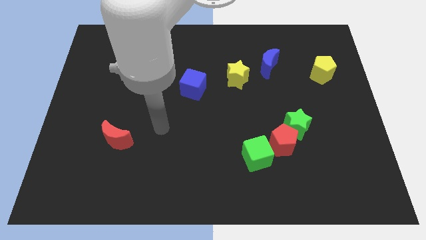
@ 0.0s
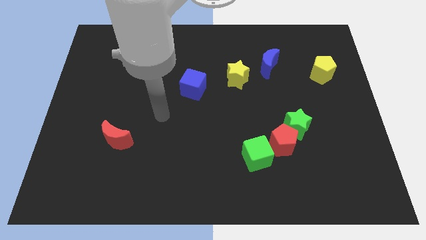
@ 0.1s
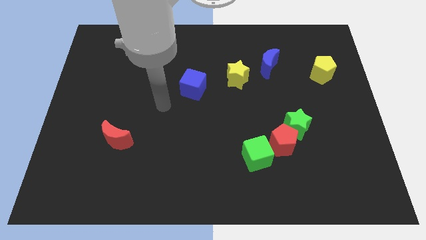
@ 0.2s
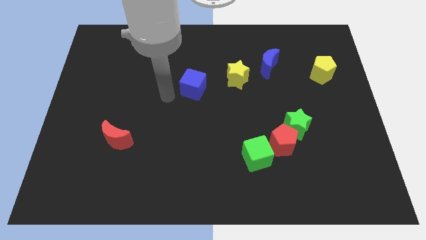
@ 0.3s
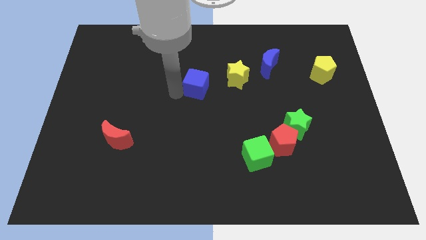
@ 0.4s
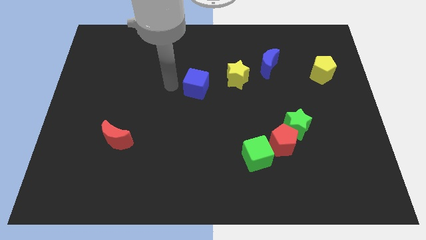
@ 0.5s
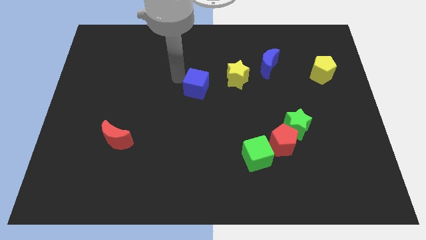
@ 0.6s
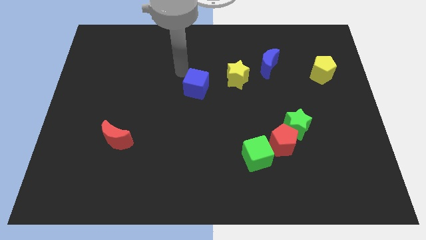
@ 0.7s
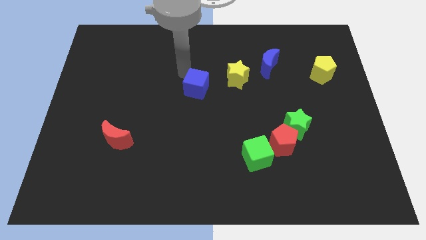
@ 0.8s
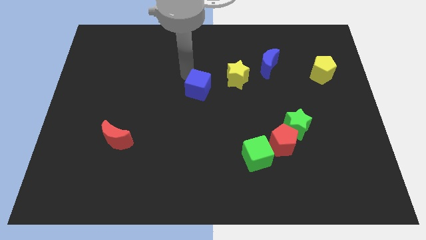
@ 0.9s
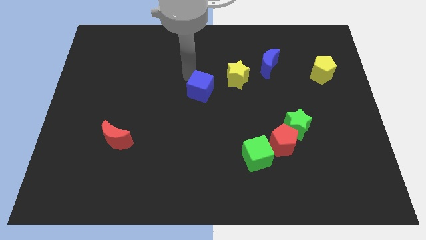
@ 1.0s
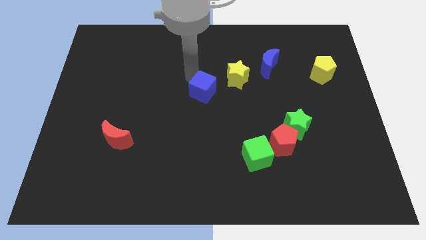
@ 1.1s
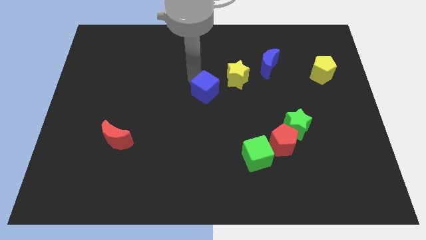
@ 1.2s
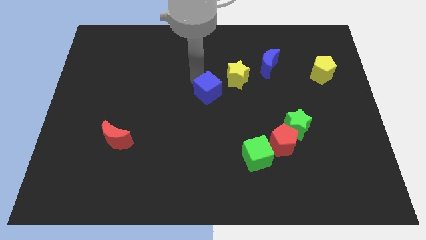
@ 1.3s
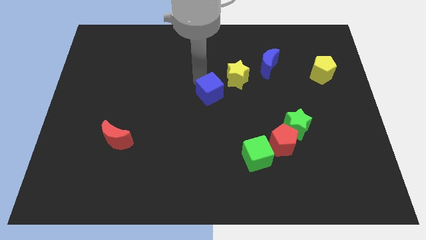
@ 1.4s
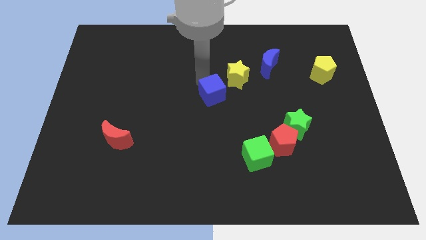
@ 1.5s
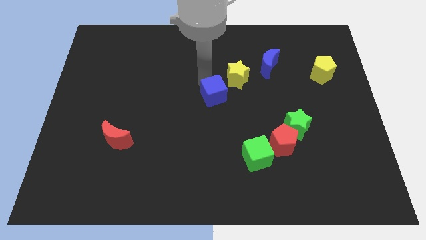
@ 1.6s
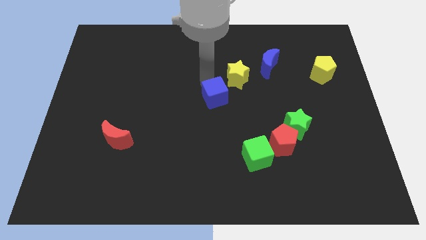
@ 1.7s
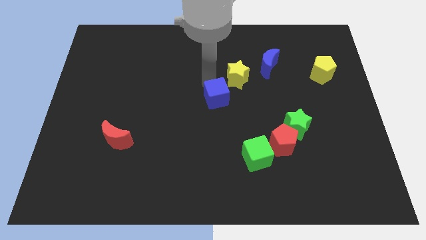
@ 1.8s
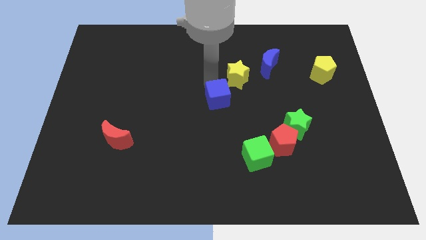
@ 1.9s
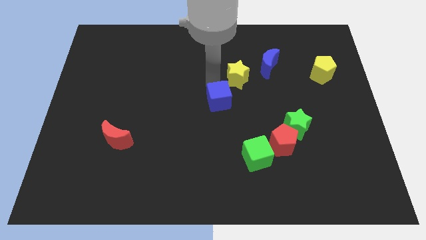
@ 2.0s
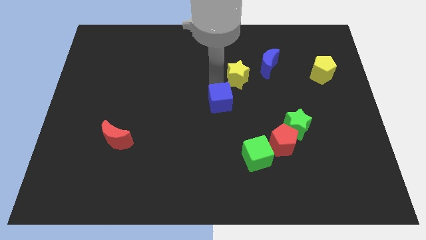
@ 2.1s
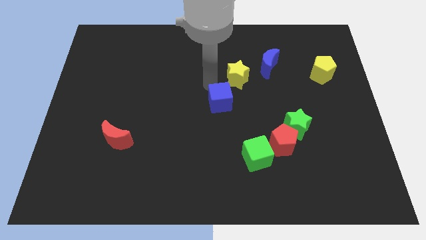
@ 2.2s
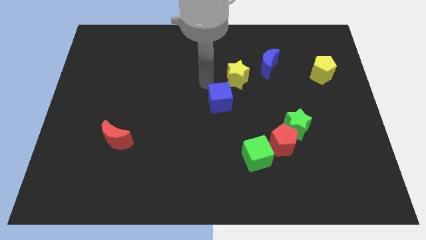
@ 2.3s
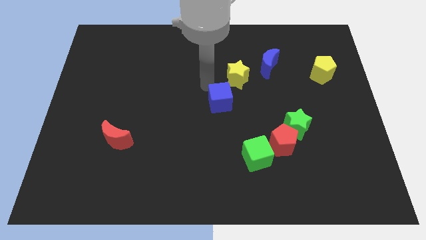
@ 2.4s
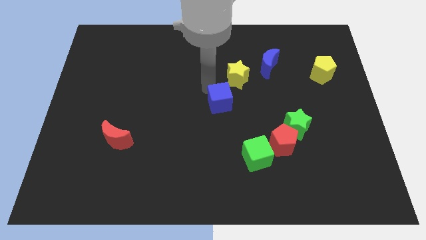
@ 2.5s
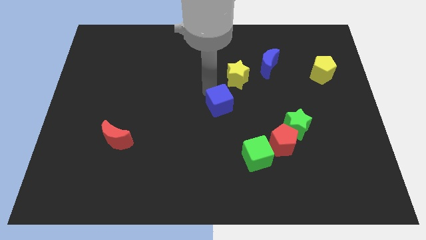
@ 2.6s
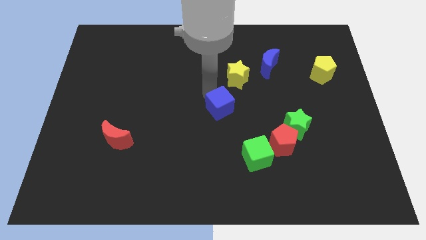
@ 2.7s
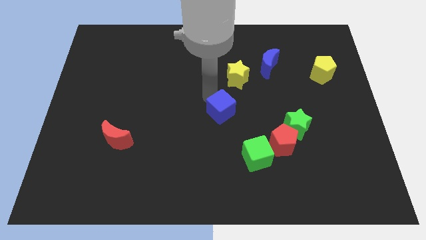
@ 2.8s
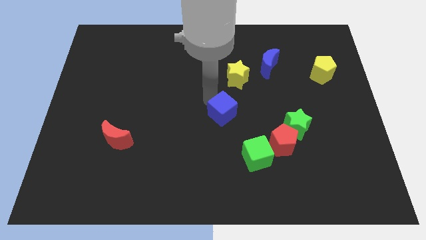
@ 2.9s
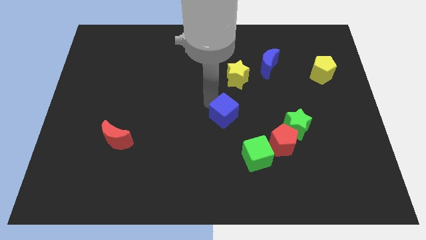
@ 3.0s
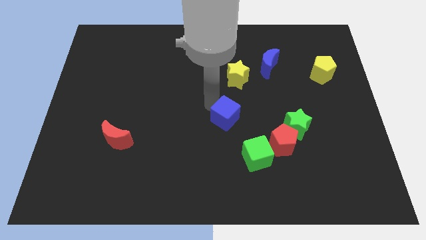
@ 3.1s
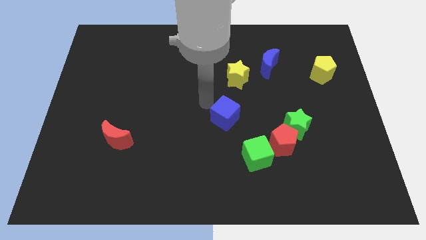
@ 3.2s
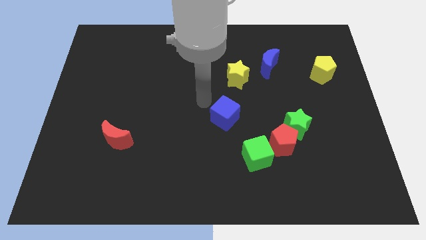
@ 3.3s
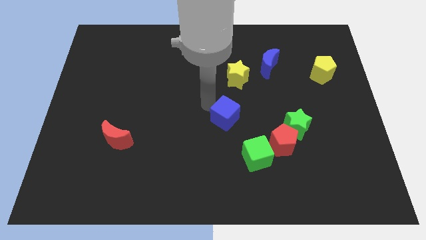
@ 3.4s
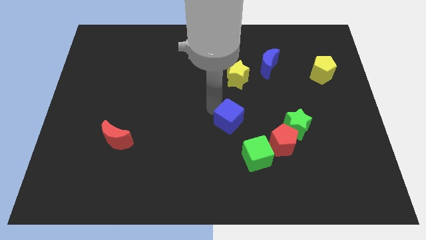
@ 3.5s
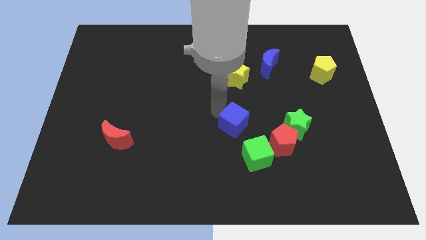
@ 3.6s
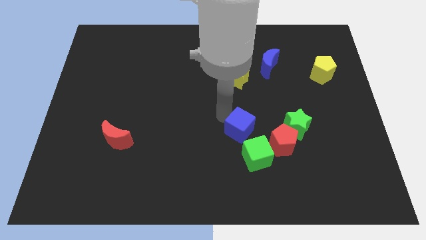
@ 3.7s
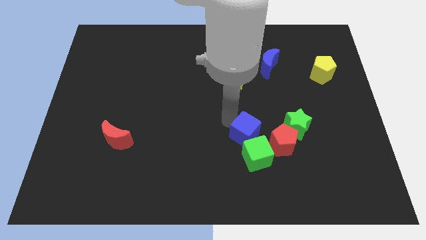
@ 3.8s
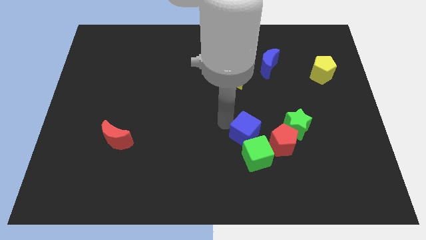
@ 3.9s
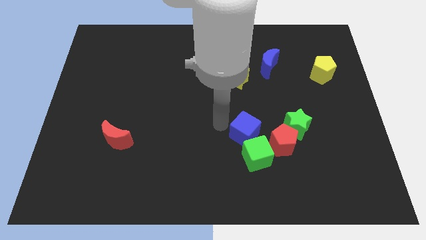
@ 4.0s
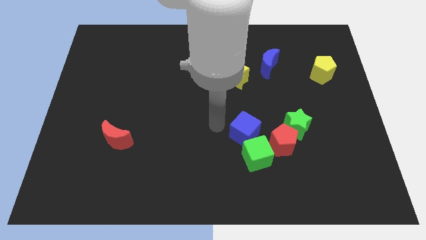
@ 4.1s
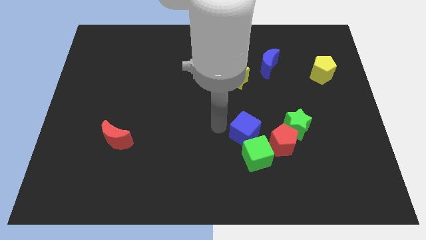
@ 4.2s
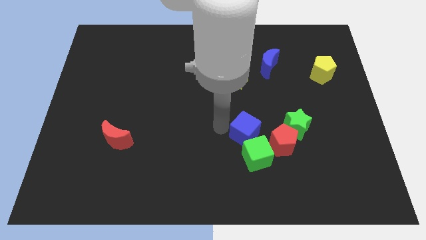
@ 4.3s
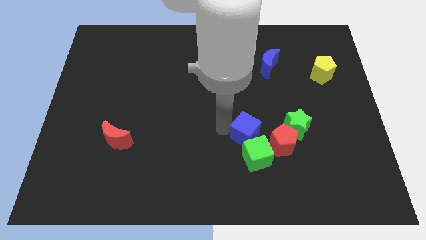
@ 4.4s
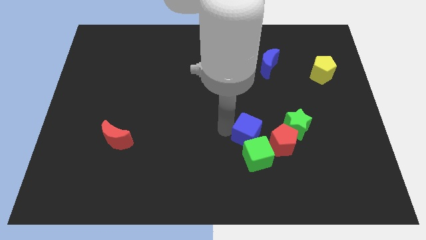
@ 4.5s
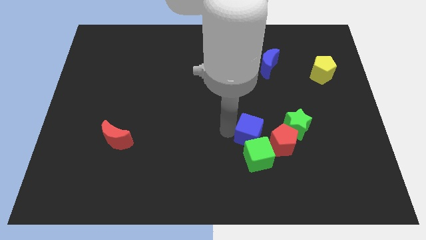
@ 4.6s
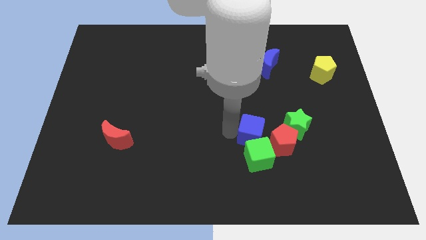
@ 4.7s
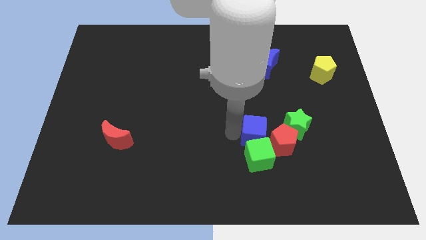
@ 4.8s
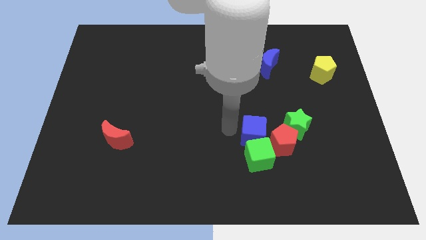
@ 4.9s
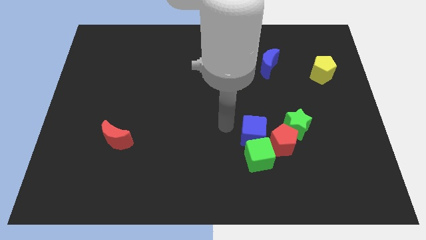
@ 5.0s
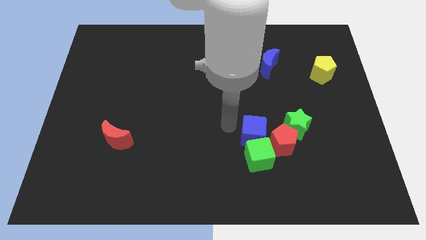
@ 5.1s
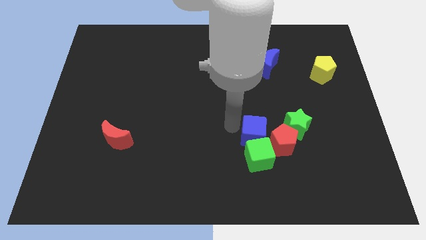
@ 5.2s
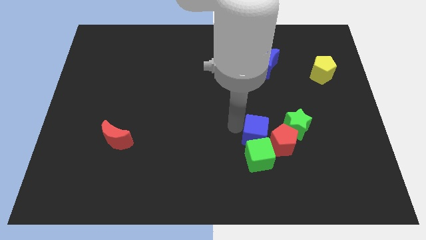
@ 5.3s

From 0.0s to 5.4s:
move the blue cube close to the red pentagon

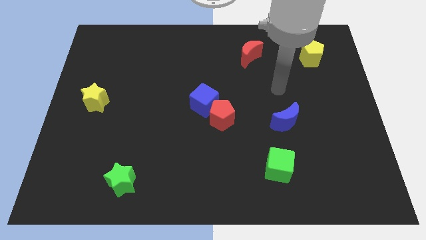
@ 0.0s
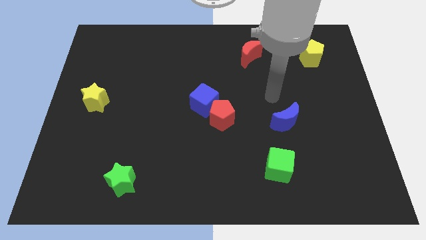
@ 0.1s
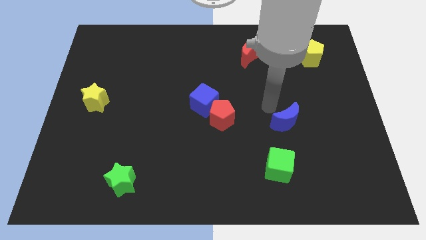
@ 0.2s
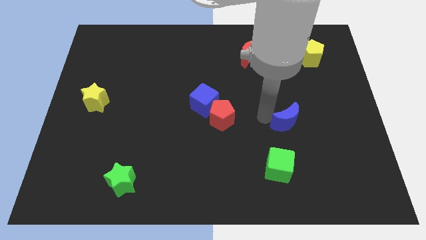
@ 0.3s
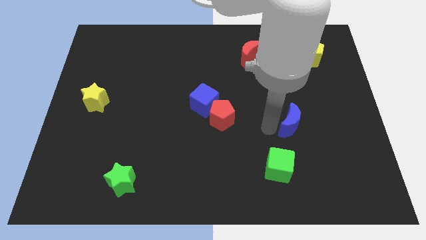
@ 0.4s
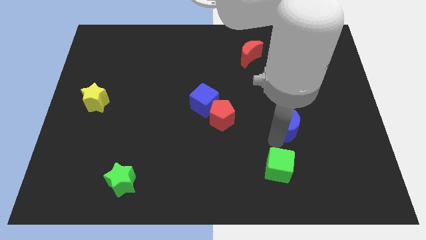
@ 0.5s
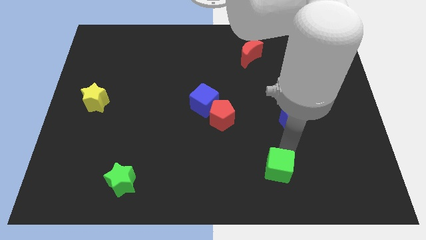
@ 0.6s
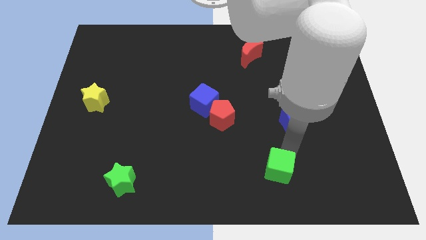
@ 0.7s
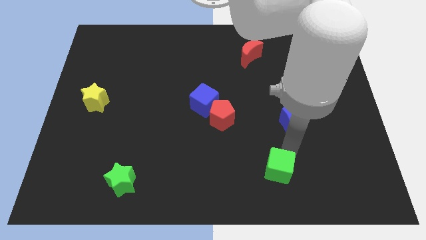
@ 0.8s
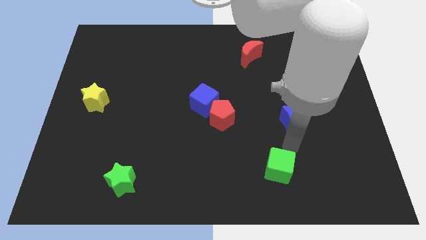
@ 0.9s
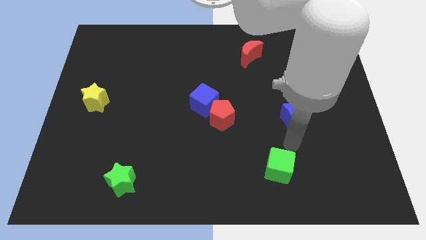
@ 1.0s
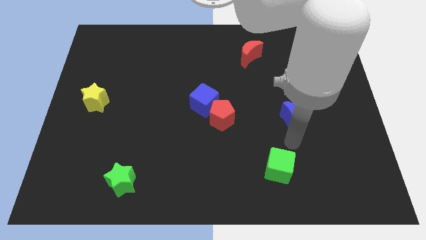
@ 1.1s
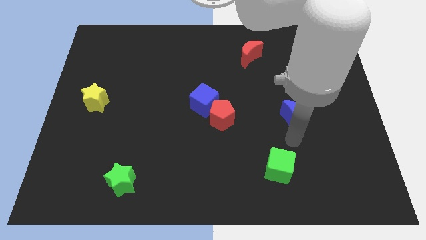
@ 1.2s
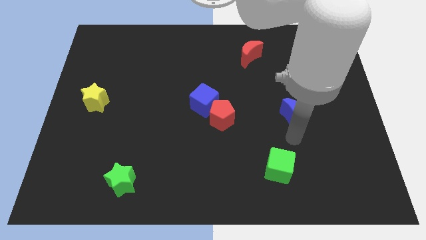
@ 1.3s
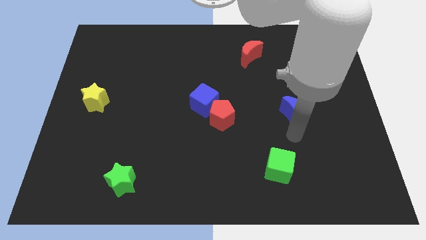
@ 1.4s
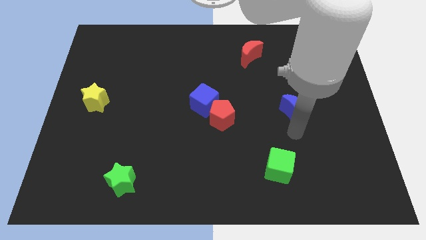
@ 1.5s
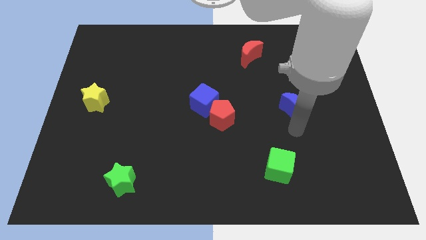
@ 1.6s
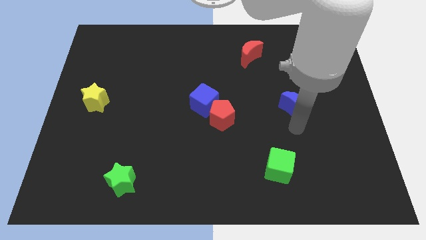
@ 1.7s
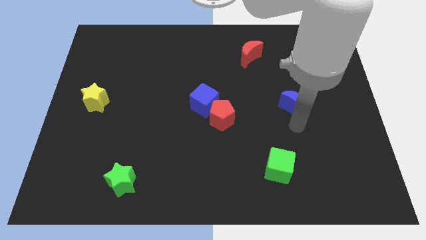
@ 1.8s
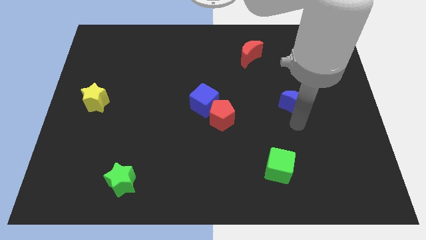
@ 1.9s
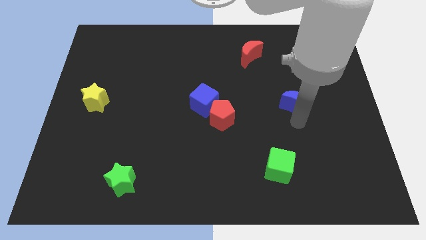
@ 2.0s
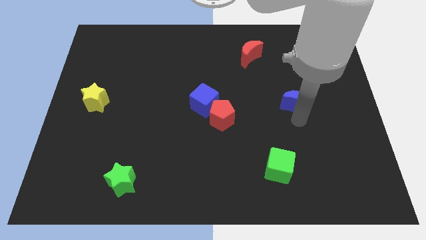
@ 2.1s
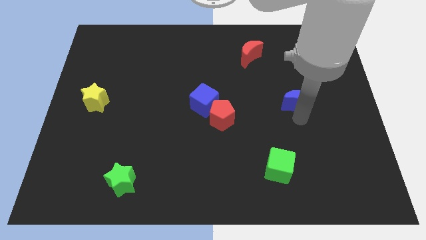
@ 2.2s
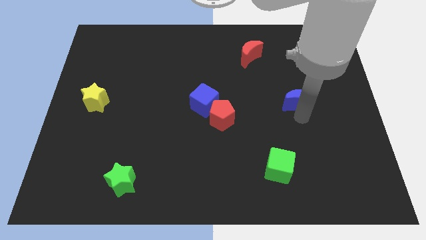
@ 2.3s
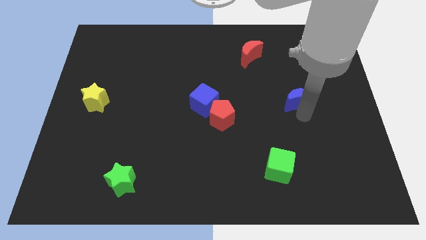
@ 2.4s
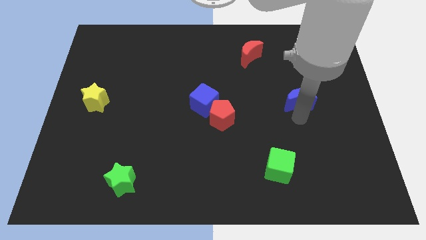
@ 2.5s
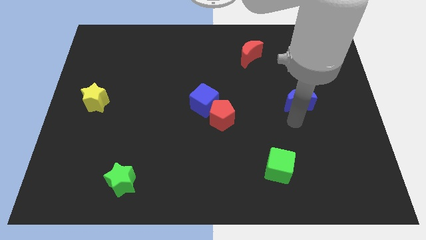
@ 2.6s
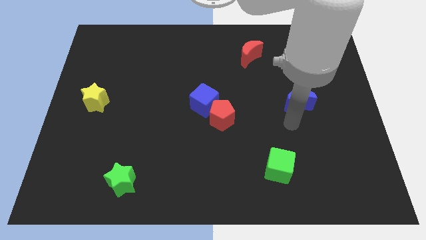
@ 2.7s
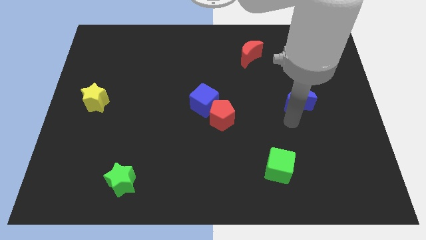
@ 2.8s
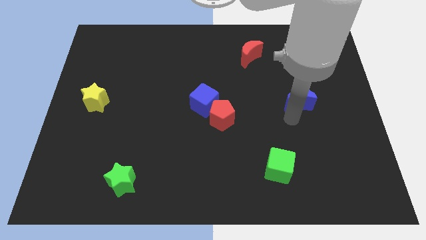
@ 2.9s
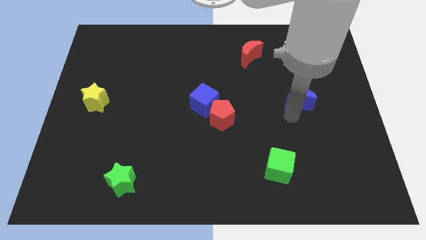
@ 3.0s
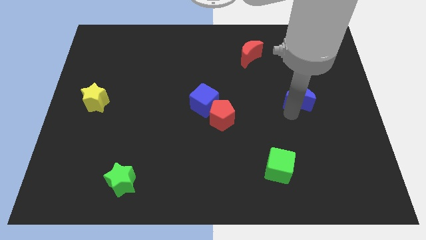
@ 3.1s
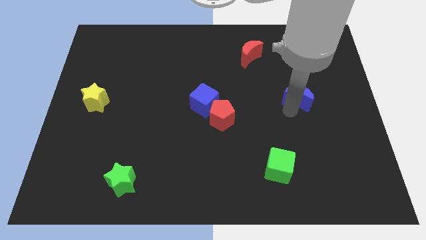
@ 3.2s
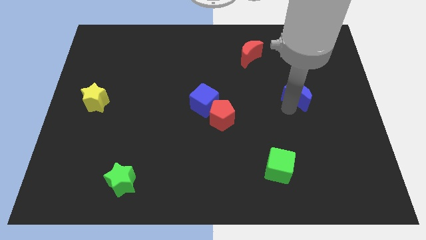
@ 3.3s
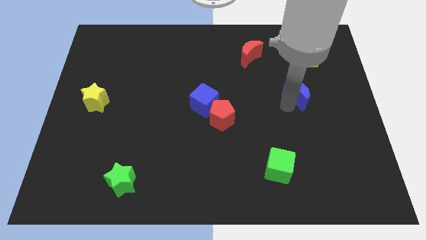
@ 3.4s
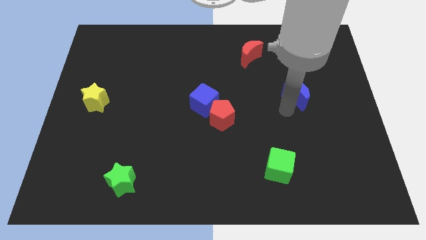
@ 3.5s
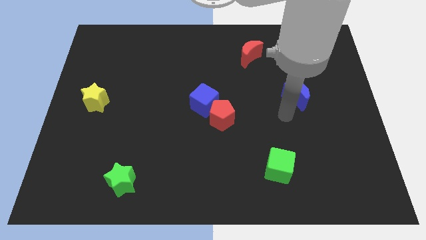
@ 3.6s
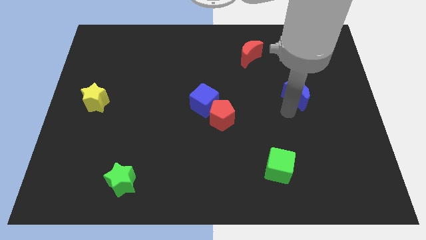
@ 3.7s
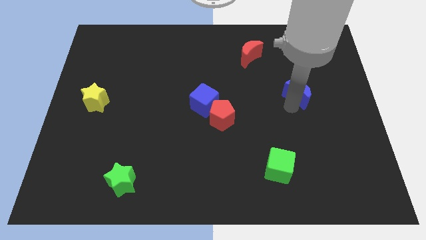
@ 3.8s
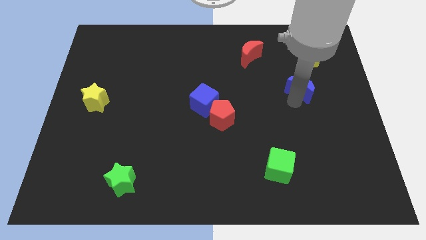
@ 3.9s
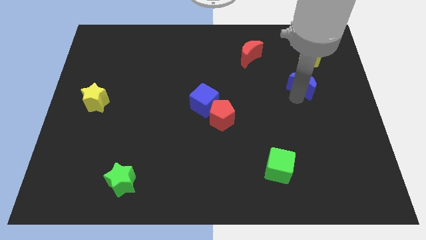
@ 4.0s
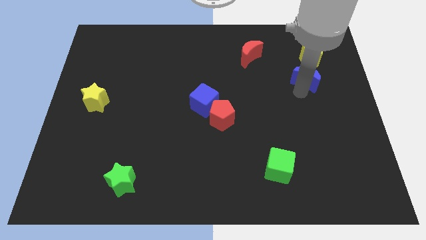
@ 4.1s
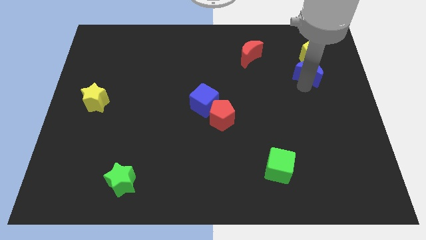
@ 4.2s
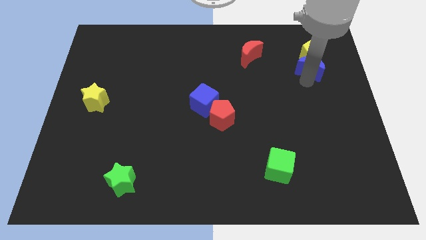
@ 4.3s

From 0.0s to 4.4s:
move the blue moon to the yellow pentagon
